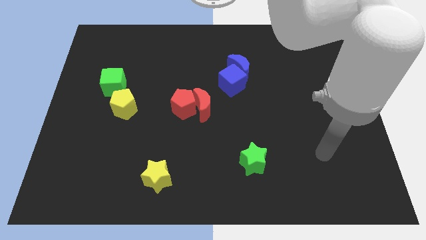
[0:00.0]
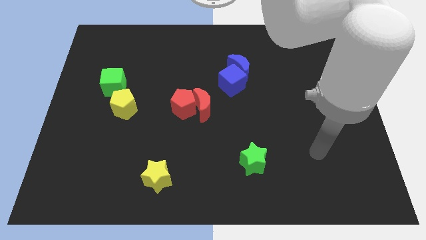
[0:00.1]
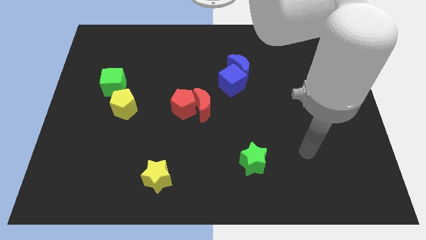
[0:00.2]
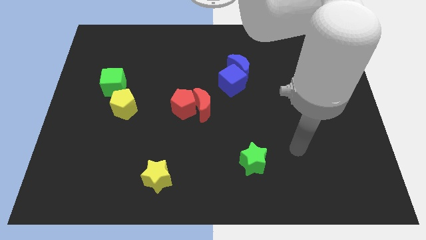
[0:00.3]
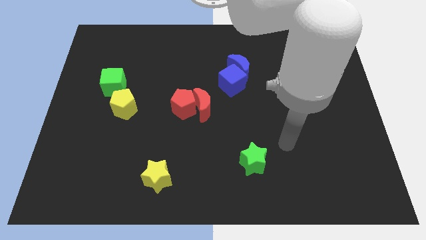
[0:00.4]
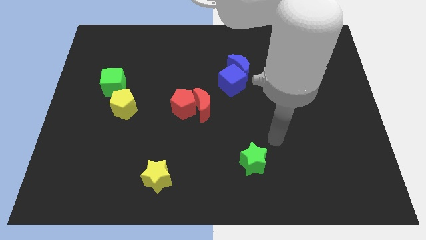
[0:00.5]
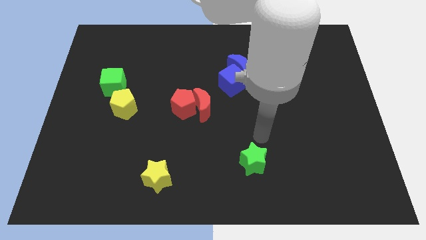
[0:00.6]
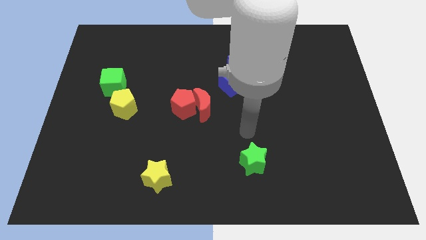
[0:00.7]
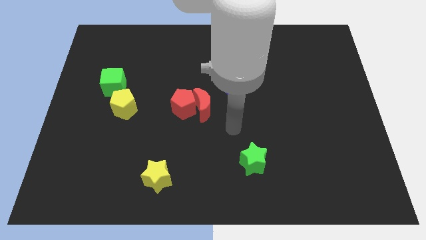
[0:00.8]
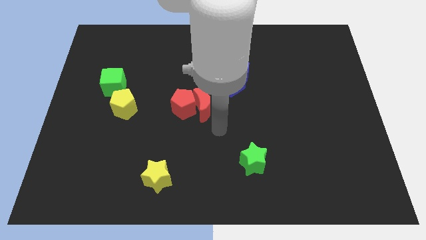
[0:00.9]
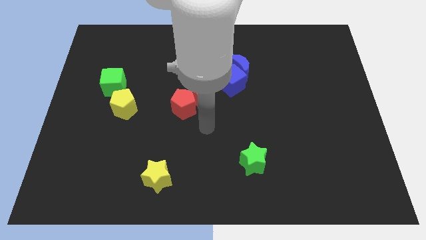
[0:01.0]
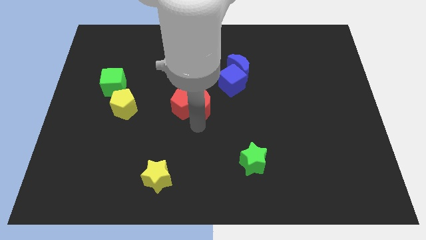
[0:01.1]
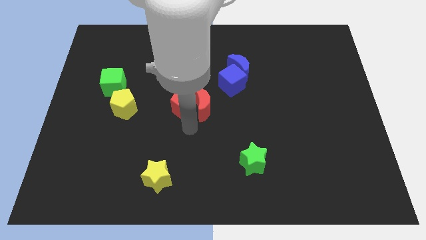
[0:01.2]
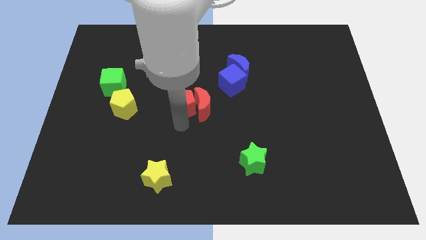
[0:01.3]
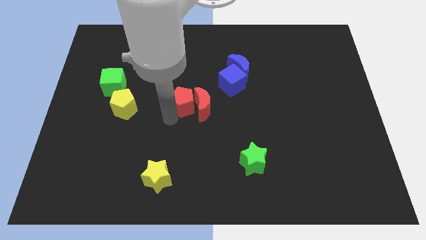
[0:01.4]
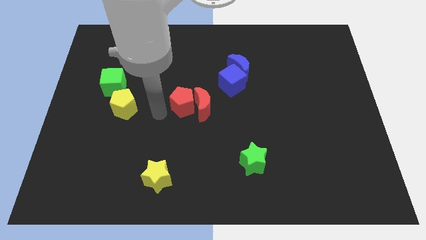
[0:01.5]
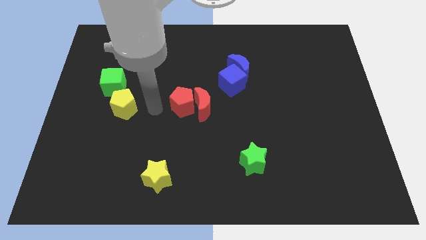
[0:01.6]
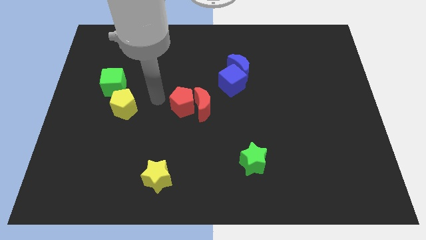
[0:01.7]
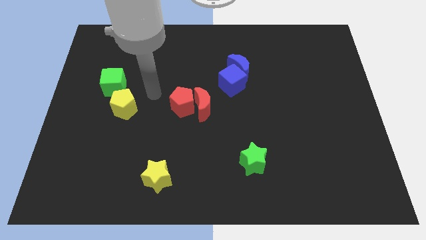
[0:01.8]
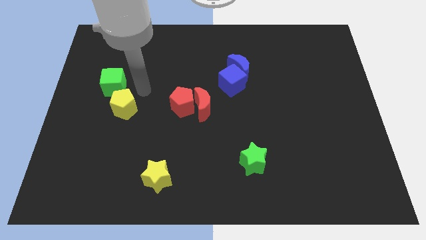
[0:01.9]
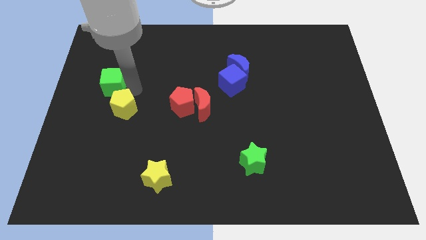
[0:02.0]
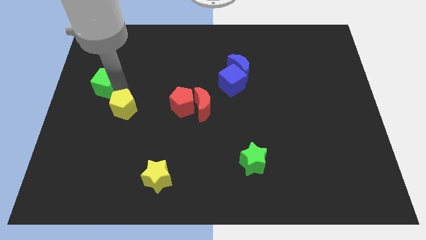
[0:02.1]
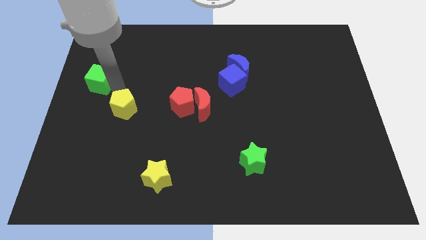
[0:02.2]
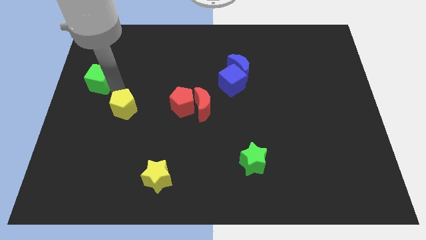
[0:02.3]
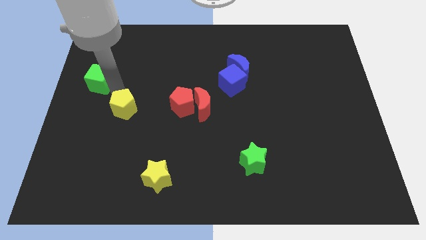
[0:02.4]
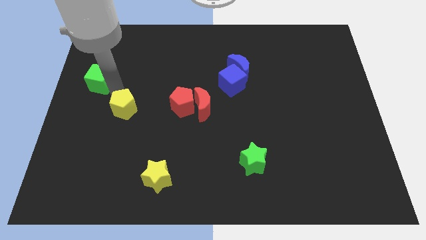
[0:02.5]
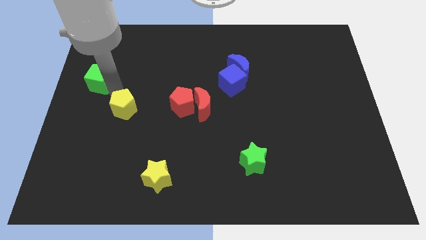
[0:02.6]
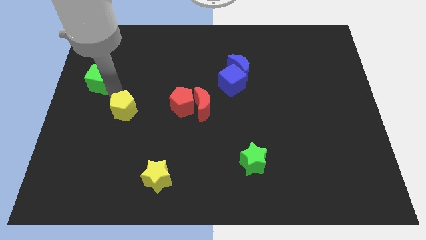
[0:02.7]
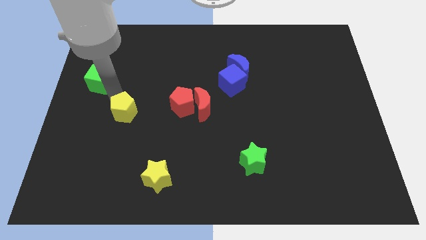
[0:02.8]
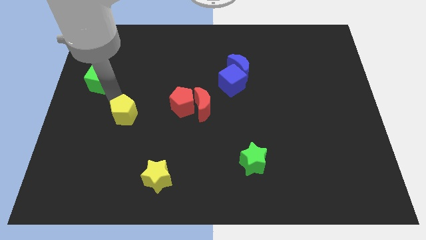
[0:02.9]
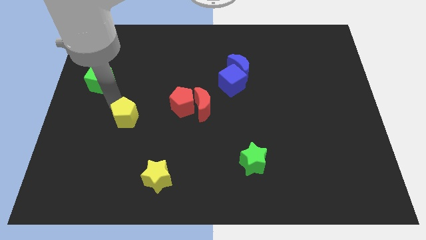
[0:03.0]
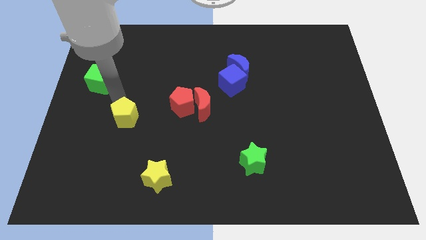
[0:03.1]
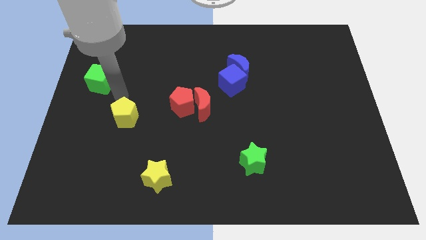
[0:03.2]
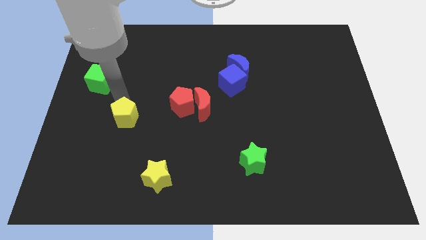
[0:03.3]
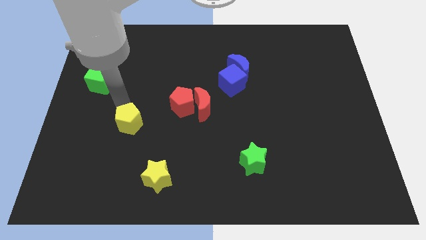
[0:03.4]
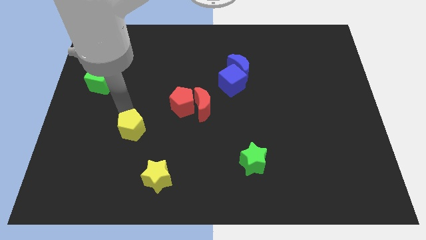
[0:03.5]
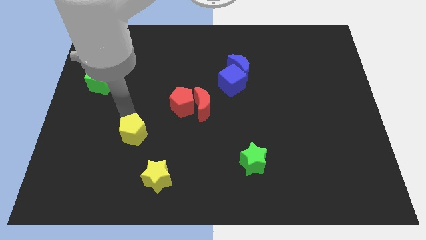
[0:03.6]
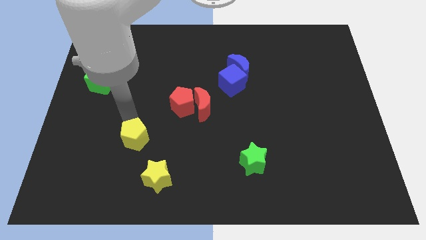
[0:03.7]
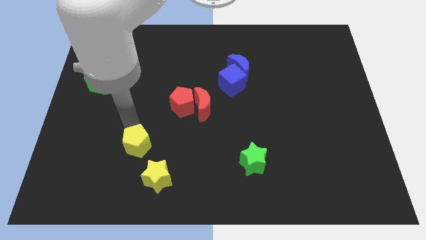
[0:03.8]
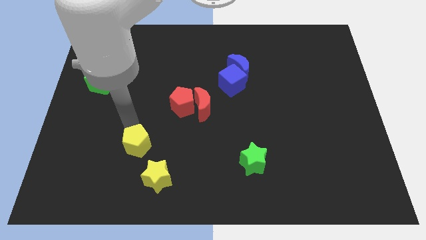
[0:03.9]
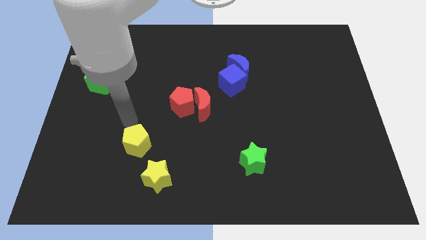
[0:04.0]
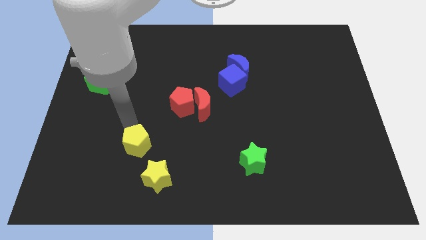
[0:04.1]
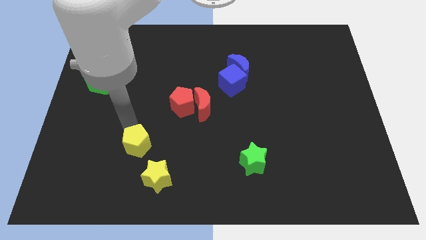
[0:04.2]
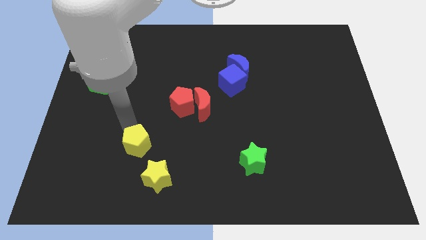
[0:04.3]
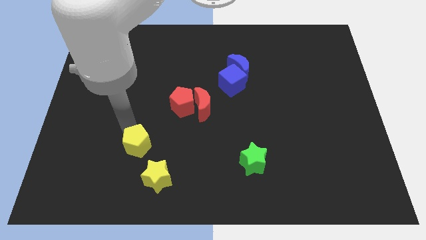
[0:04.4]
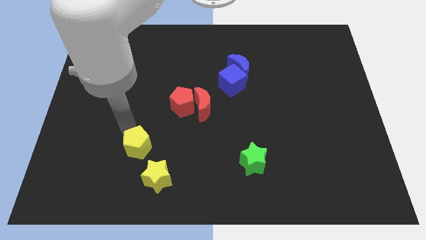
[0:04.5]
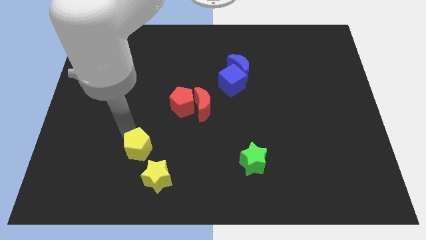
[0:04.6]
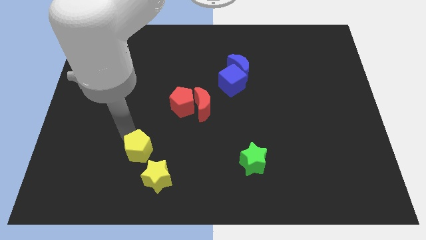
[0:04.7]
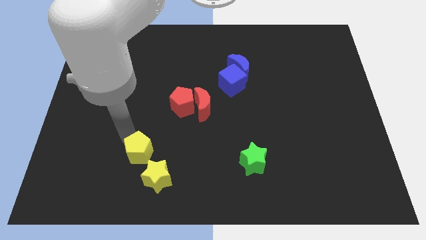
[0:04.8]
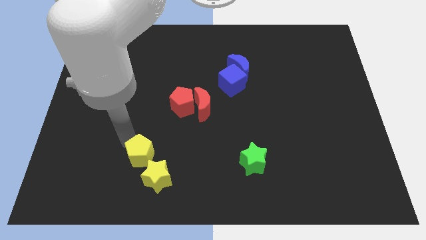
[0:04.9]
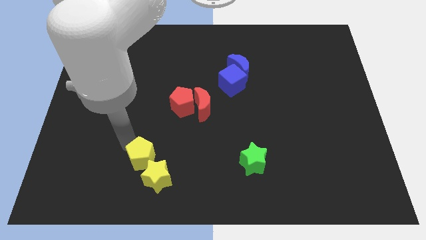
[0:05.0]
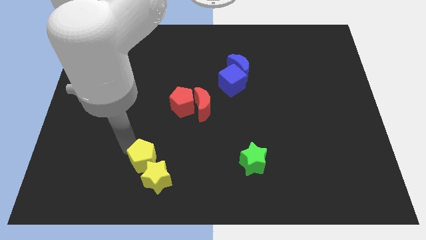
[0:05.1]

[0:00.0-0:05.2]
slide the yellow pentagon to the yellow star

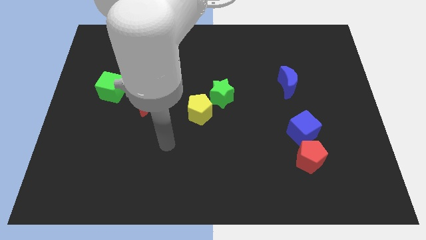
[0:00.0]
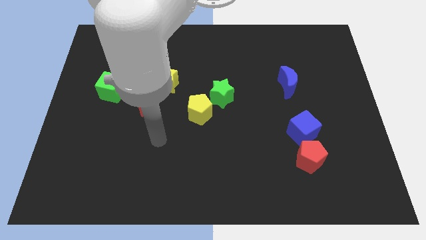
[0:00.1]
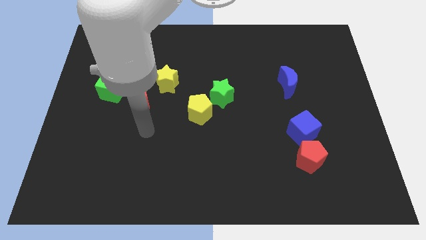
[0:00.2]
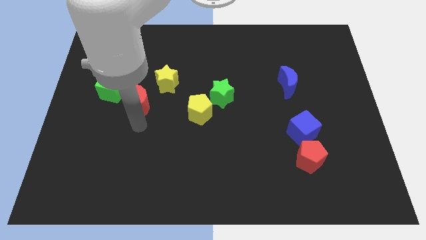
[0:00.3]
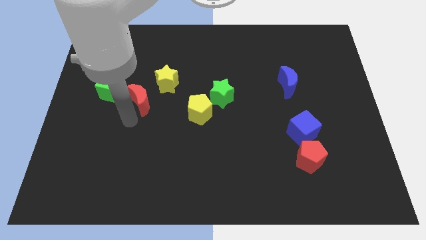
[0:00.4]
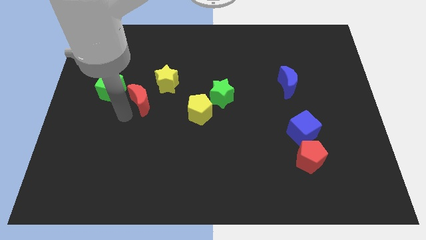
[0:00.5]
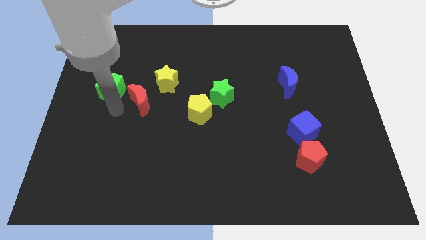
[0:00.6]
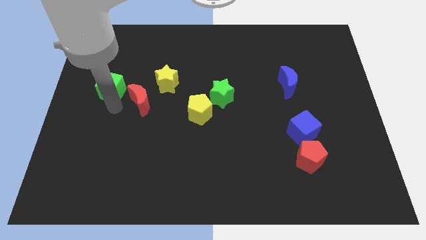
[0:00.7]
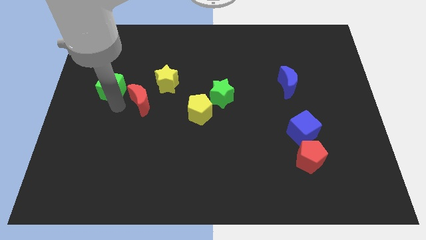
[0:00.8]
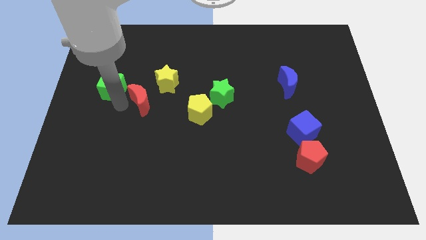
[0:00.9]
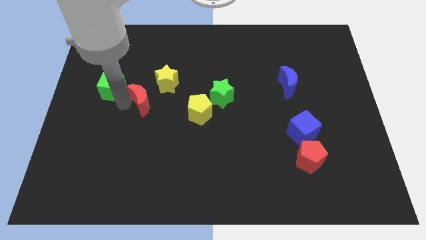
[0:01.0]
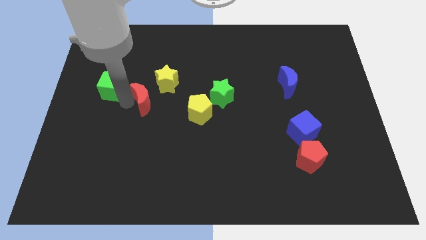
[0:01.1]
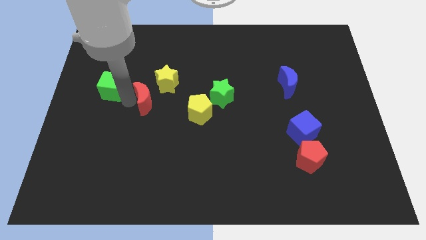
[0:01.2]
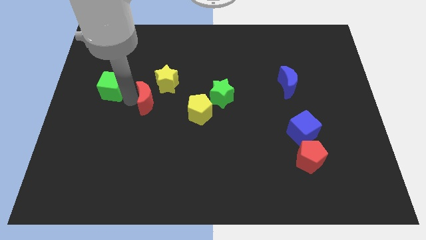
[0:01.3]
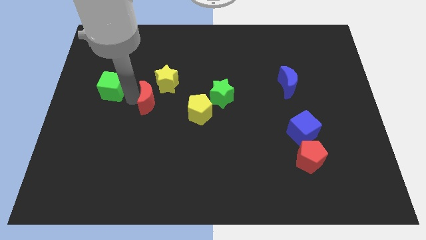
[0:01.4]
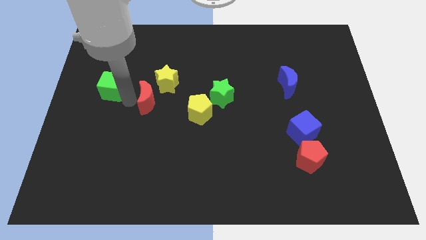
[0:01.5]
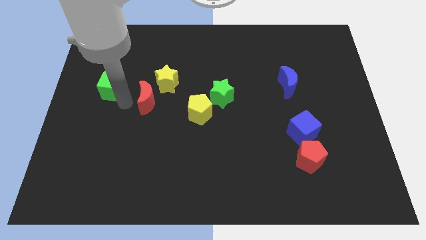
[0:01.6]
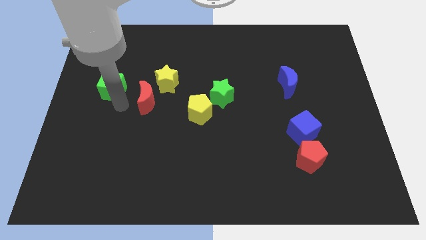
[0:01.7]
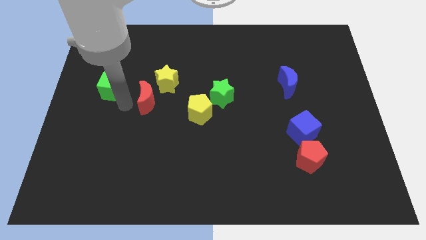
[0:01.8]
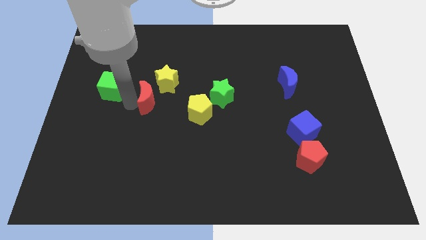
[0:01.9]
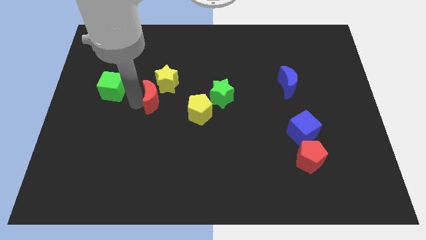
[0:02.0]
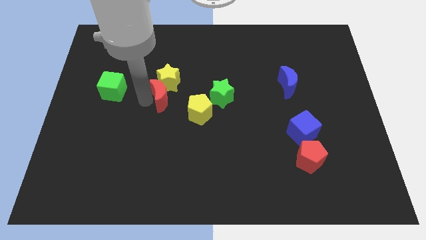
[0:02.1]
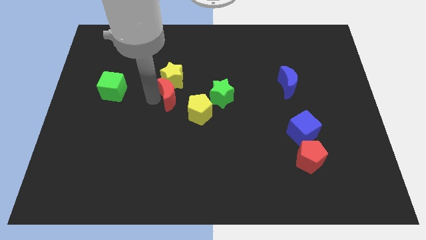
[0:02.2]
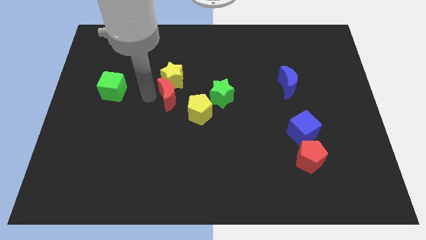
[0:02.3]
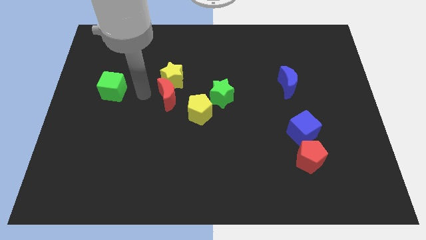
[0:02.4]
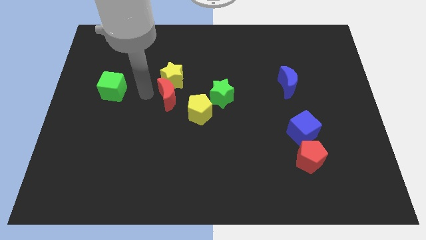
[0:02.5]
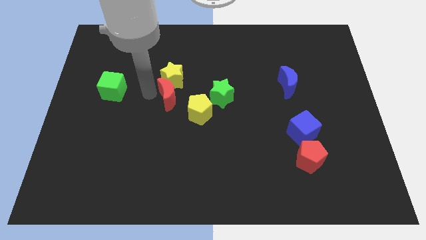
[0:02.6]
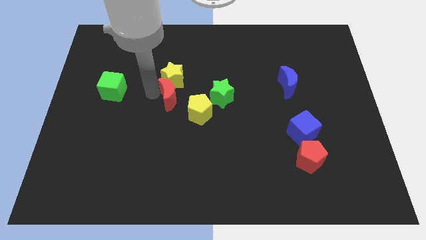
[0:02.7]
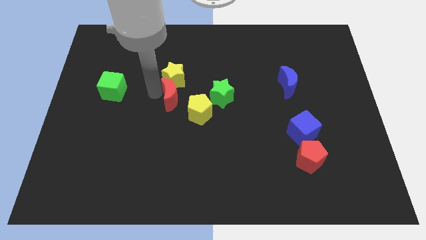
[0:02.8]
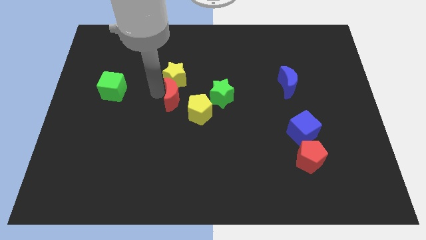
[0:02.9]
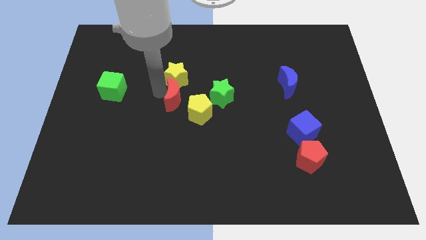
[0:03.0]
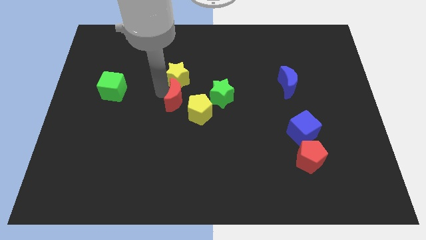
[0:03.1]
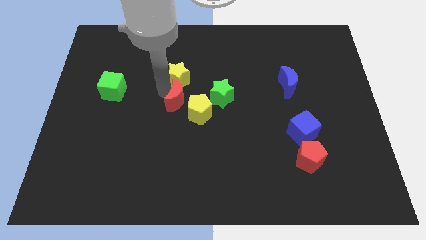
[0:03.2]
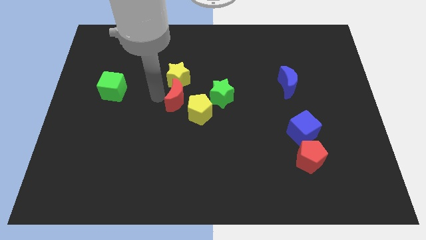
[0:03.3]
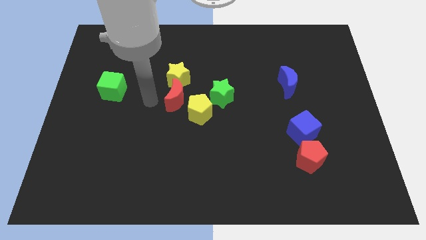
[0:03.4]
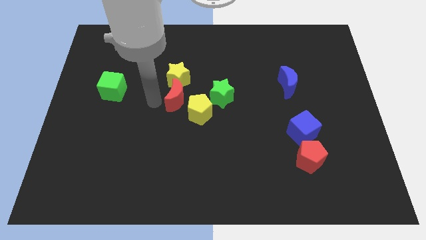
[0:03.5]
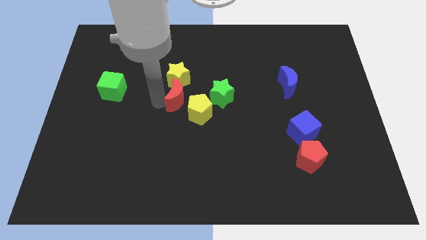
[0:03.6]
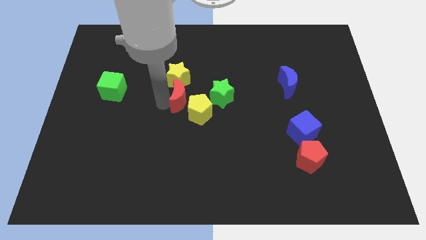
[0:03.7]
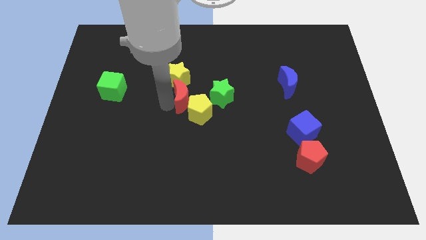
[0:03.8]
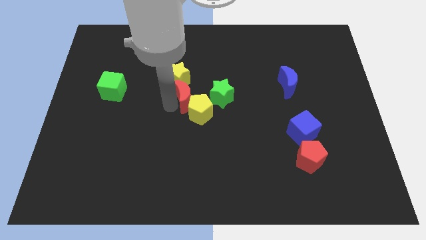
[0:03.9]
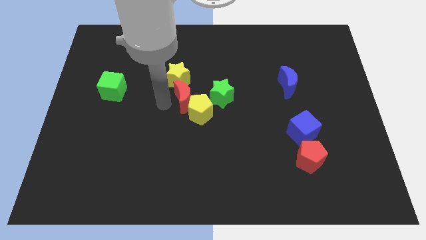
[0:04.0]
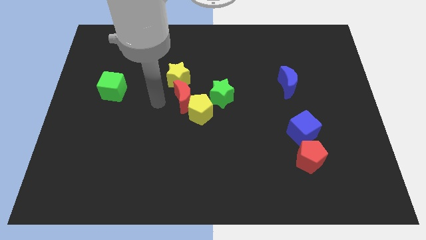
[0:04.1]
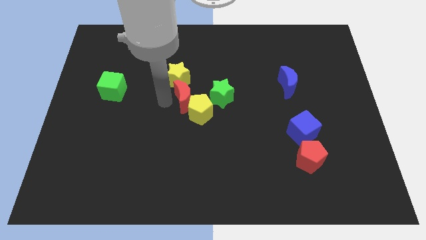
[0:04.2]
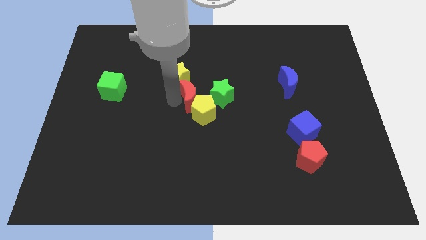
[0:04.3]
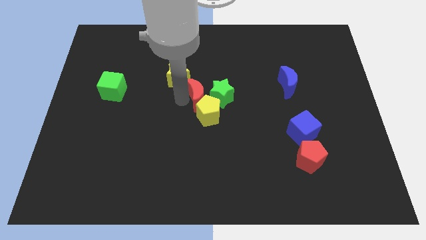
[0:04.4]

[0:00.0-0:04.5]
push the red moon towards the green star
